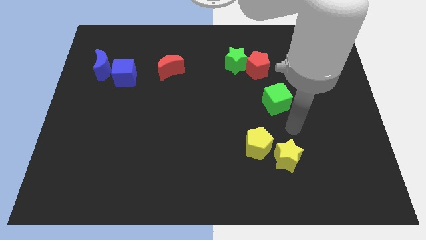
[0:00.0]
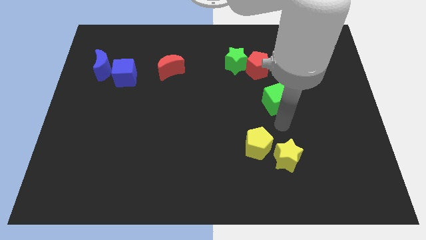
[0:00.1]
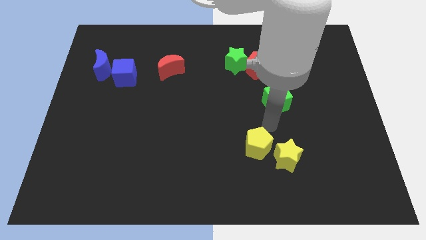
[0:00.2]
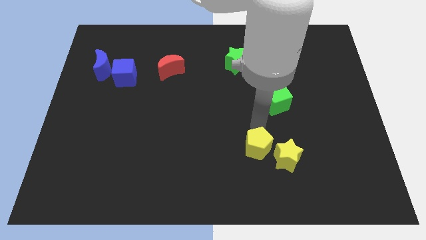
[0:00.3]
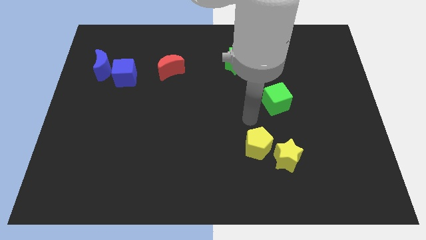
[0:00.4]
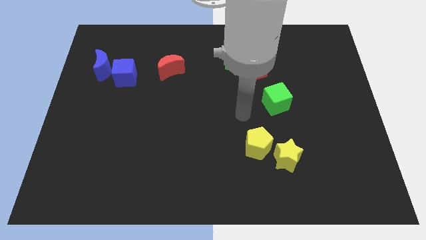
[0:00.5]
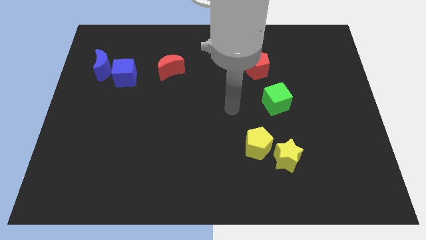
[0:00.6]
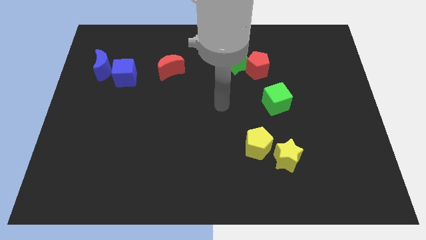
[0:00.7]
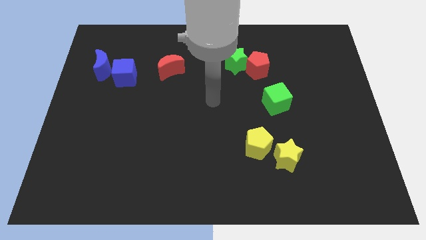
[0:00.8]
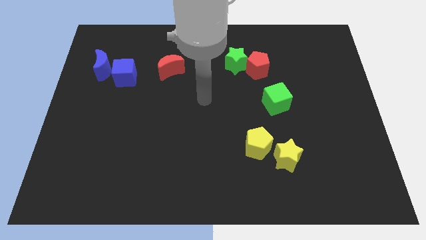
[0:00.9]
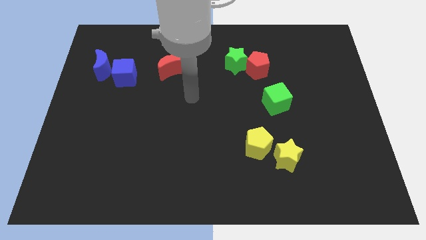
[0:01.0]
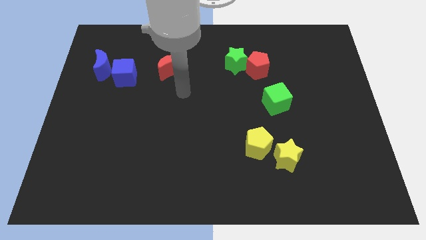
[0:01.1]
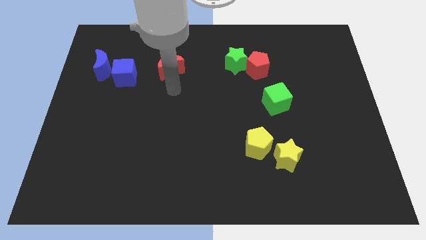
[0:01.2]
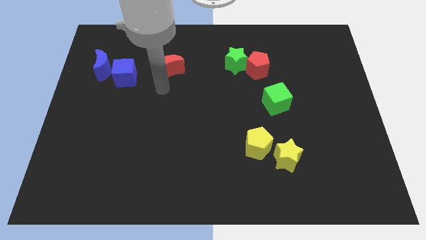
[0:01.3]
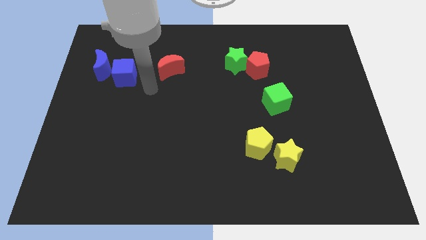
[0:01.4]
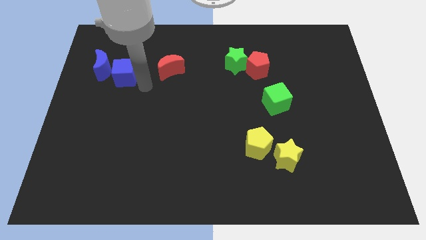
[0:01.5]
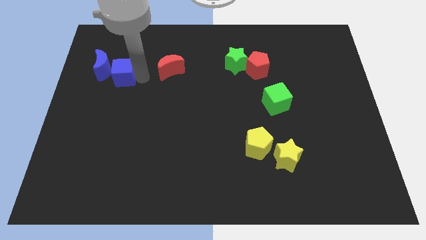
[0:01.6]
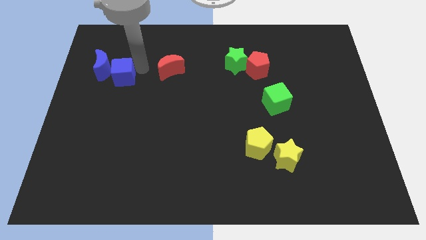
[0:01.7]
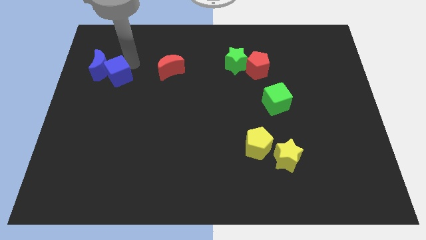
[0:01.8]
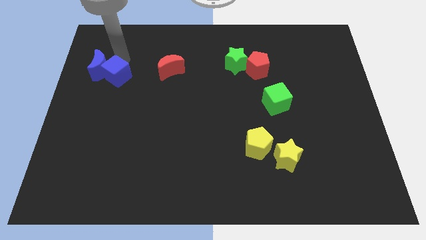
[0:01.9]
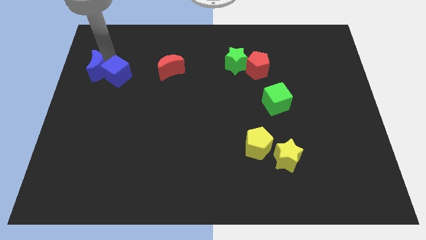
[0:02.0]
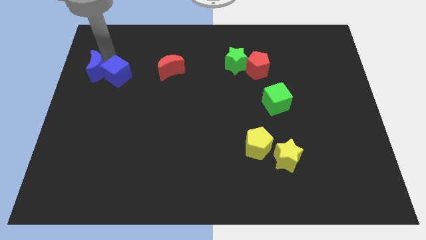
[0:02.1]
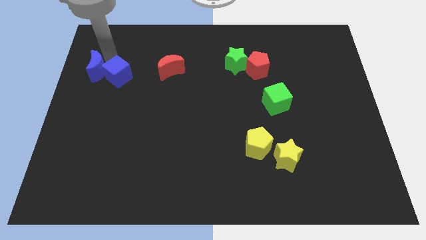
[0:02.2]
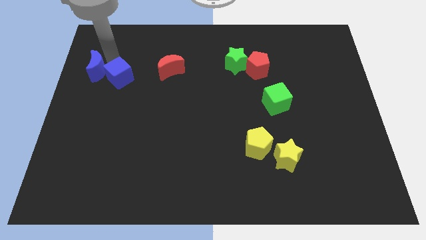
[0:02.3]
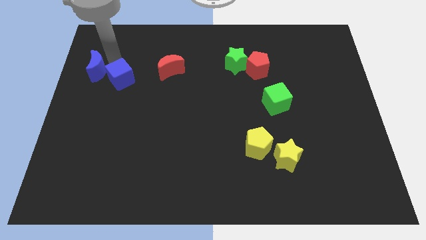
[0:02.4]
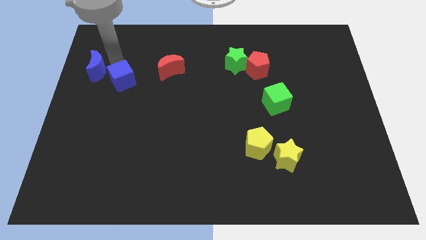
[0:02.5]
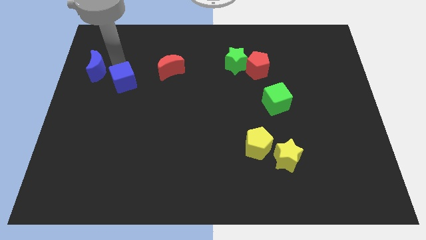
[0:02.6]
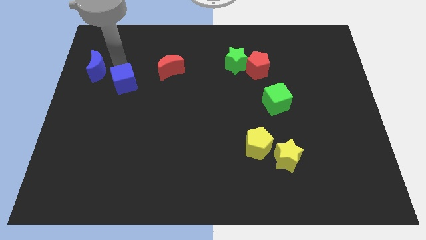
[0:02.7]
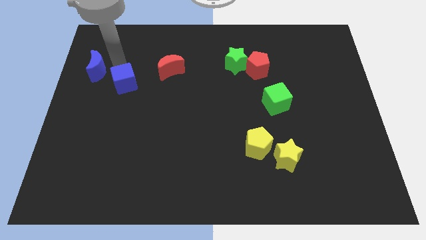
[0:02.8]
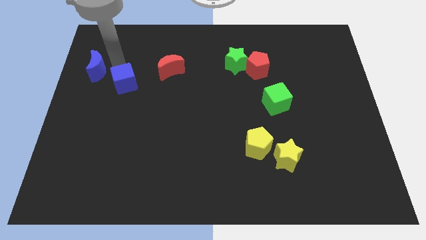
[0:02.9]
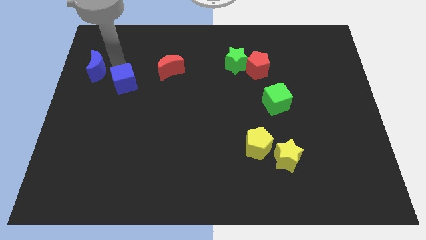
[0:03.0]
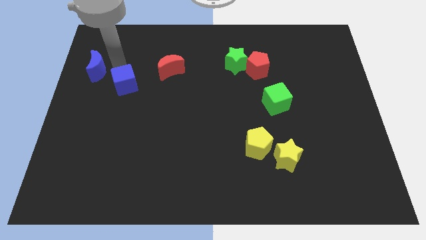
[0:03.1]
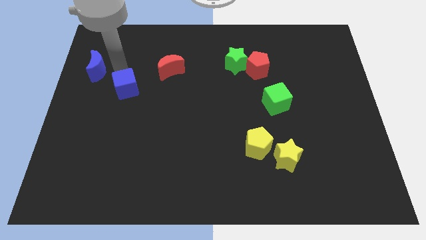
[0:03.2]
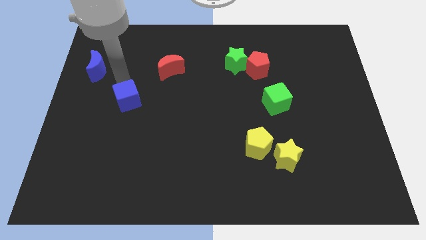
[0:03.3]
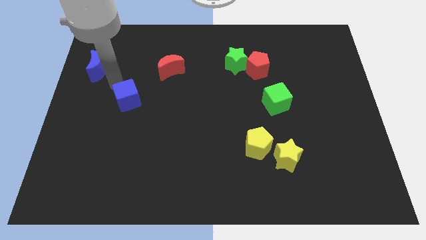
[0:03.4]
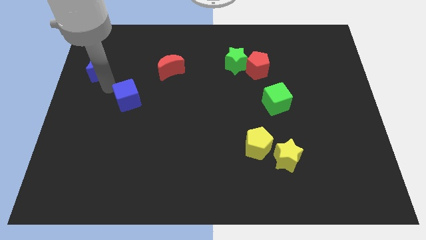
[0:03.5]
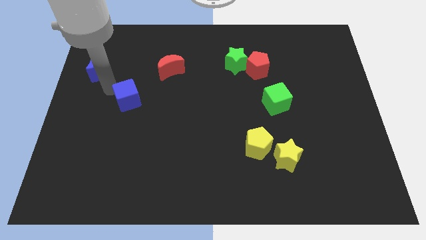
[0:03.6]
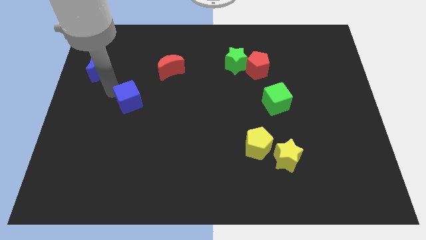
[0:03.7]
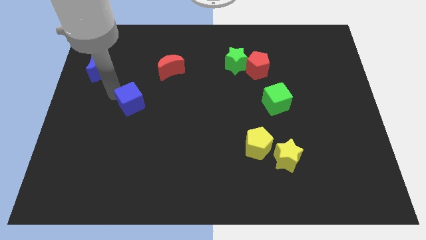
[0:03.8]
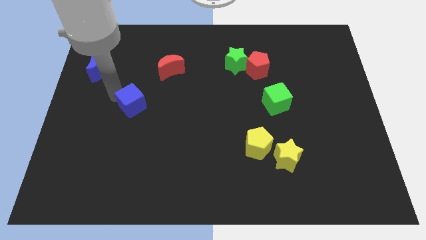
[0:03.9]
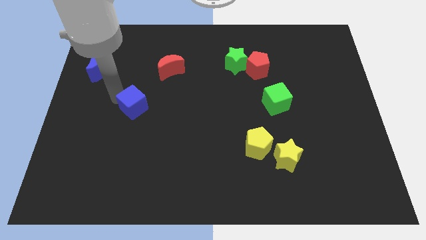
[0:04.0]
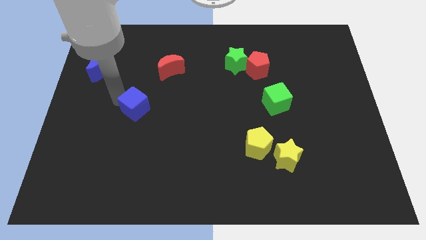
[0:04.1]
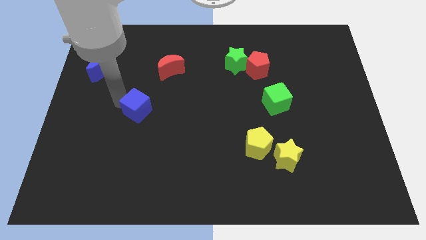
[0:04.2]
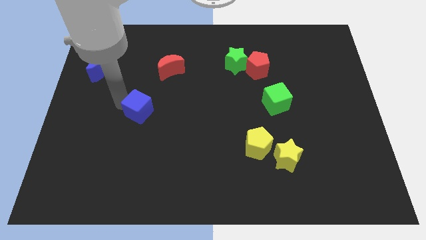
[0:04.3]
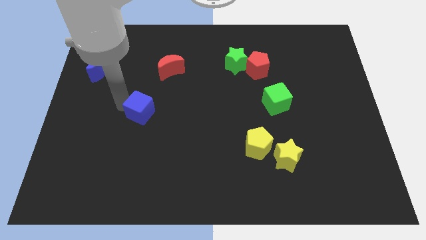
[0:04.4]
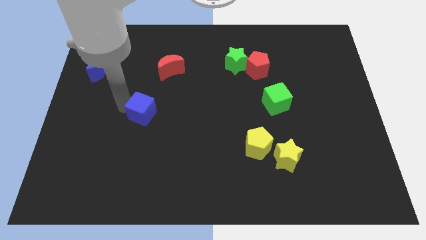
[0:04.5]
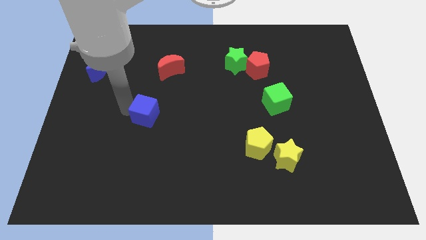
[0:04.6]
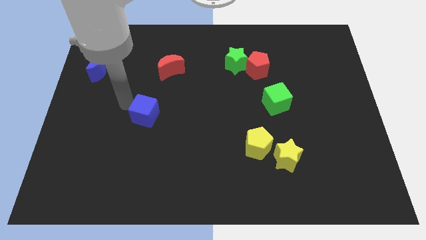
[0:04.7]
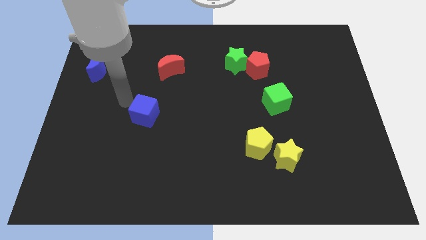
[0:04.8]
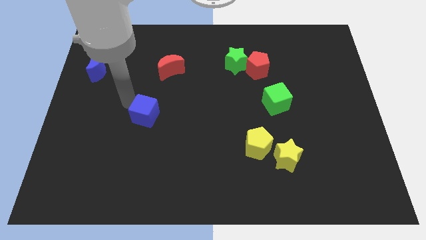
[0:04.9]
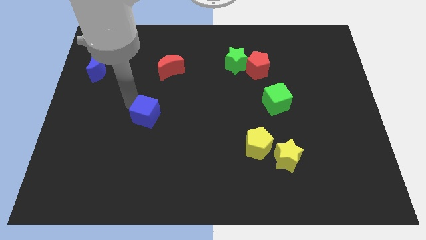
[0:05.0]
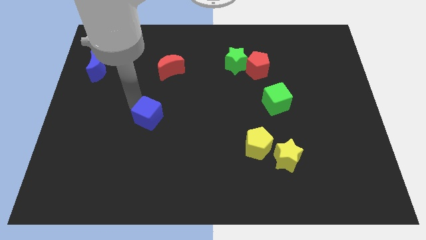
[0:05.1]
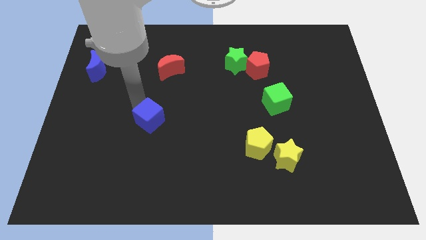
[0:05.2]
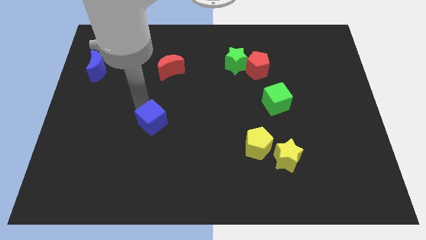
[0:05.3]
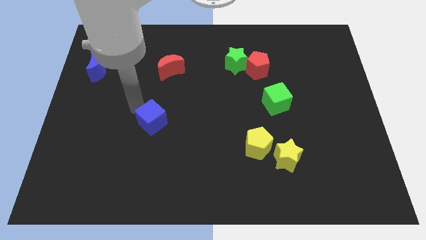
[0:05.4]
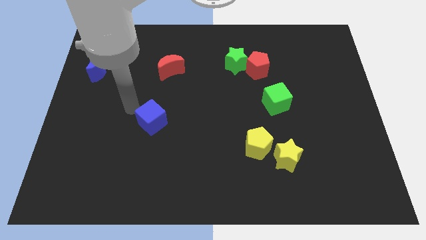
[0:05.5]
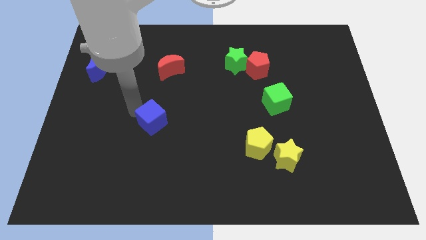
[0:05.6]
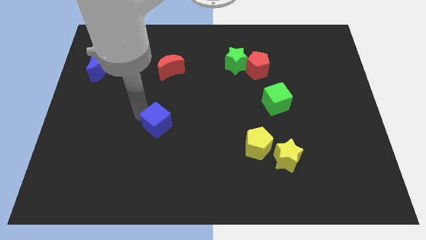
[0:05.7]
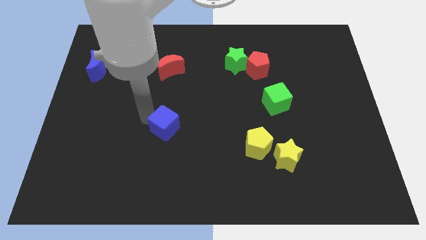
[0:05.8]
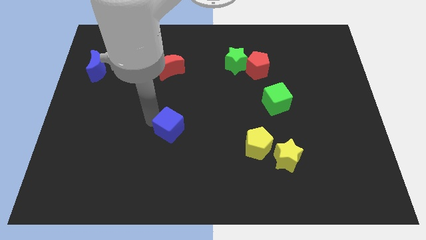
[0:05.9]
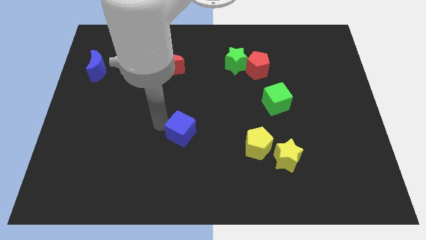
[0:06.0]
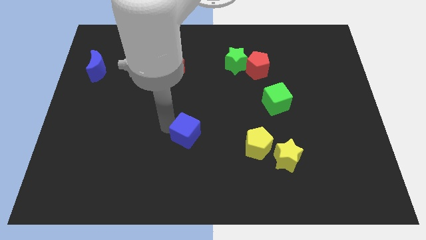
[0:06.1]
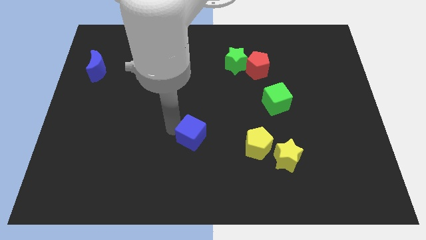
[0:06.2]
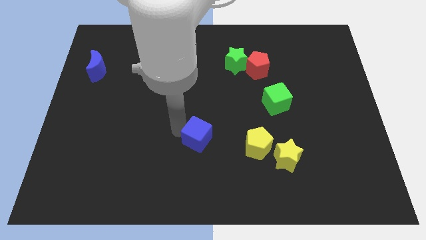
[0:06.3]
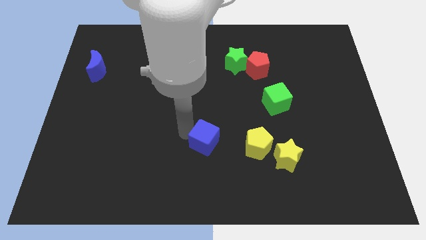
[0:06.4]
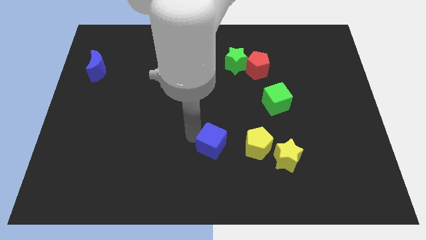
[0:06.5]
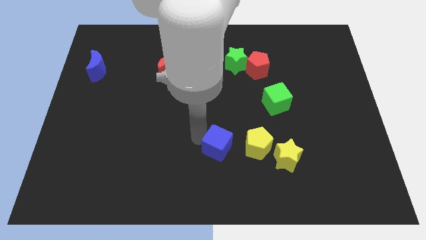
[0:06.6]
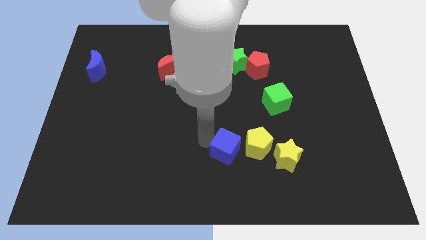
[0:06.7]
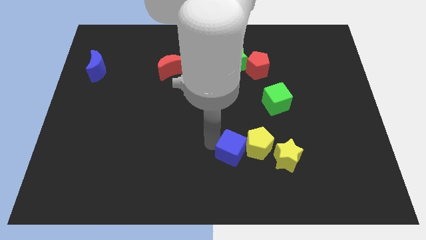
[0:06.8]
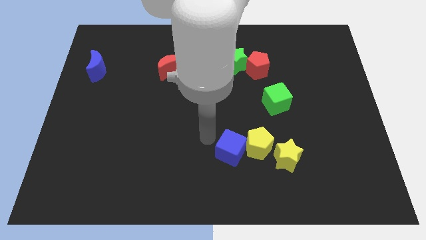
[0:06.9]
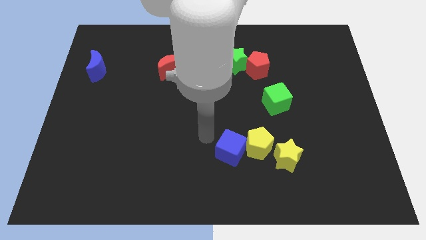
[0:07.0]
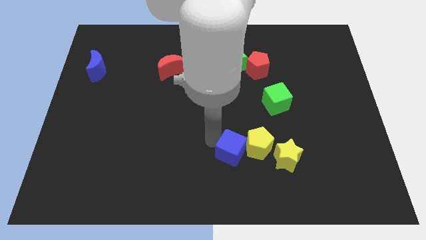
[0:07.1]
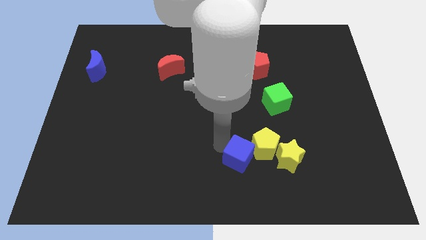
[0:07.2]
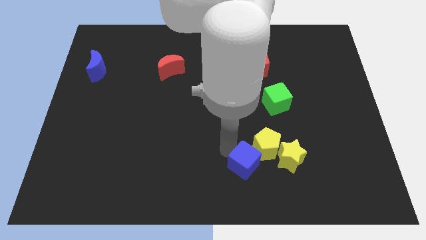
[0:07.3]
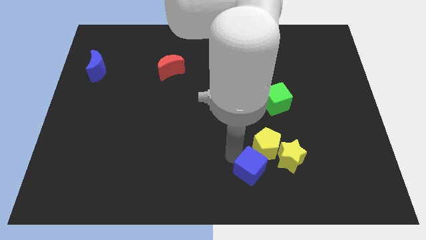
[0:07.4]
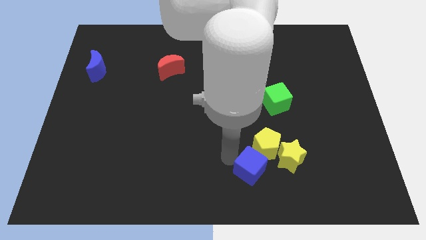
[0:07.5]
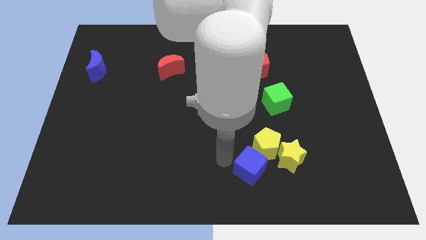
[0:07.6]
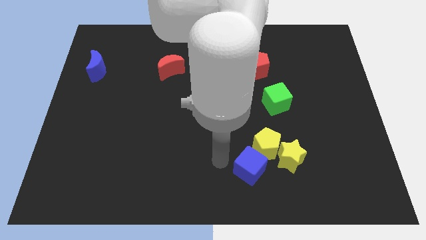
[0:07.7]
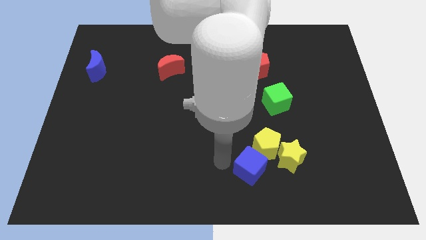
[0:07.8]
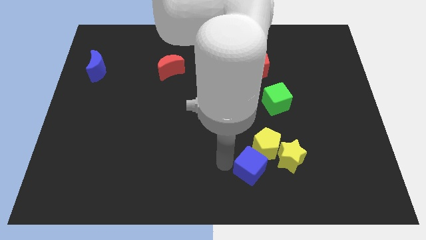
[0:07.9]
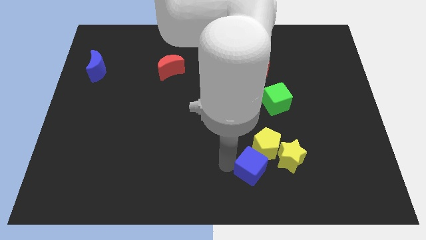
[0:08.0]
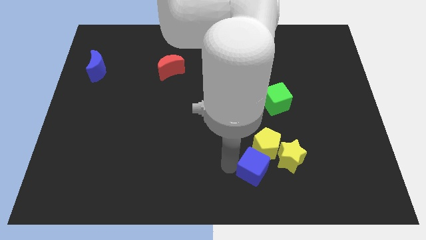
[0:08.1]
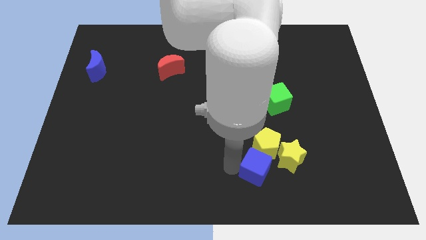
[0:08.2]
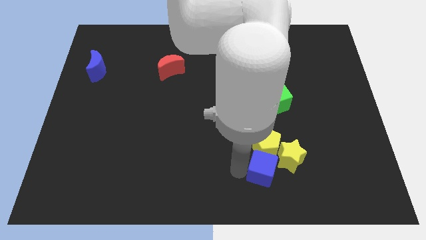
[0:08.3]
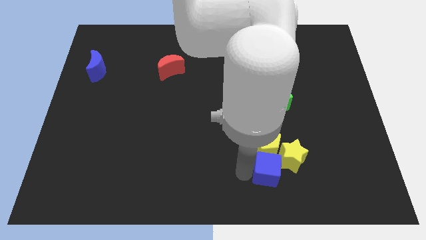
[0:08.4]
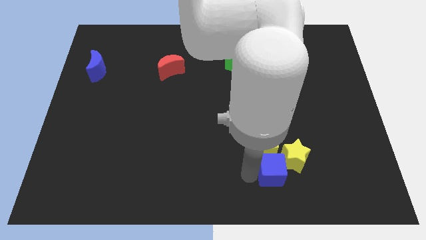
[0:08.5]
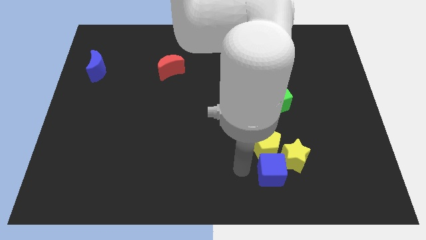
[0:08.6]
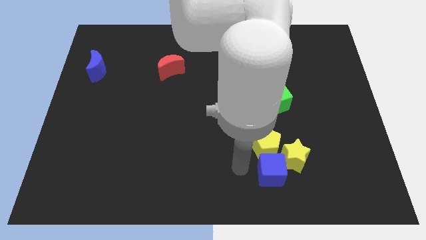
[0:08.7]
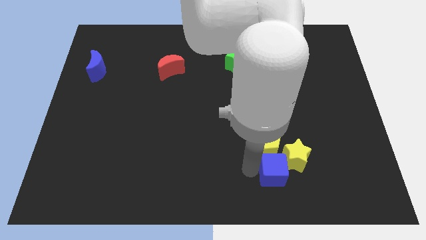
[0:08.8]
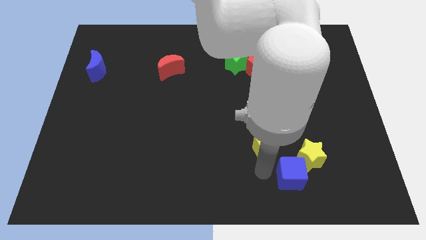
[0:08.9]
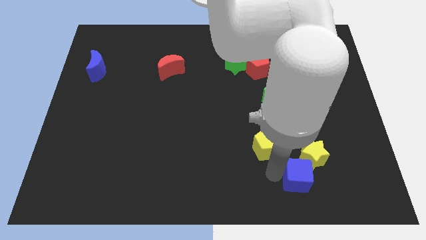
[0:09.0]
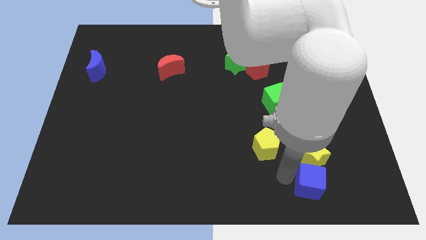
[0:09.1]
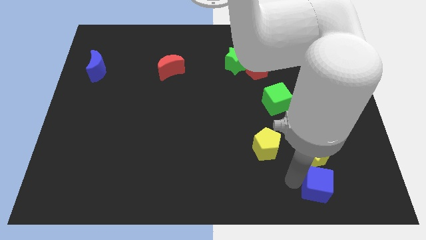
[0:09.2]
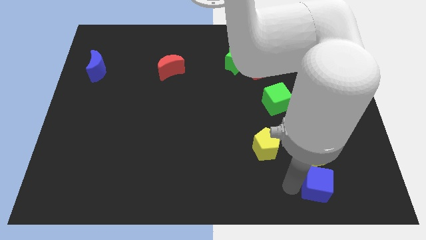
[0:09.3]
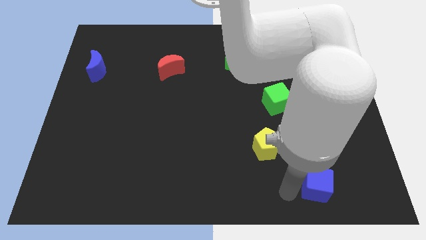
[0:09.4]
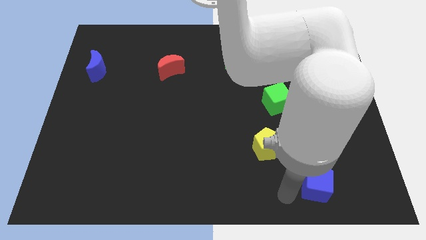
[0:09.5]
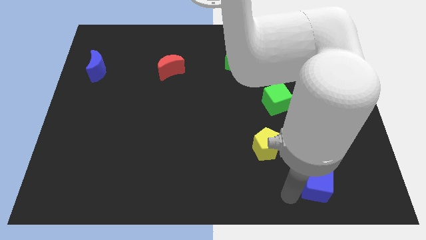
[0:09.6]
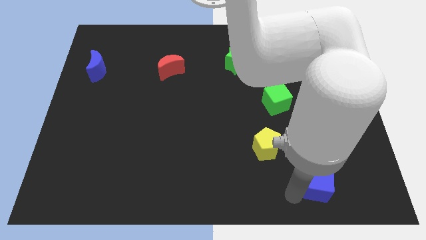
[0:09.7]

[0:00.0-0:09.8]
put the blue cube diagonally down and to the right of the yellow star
